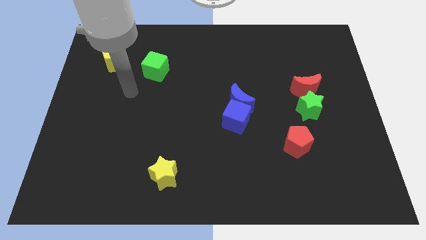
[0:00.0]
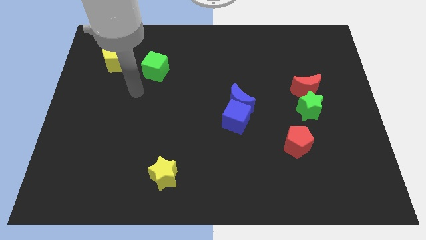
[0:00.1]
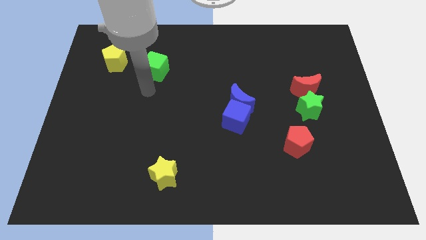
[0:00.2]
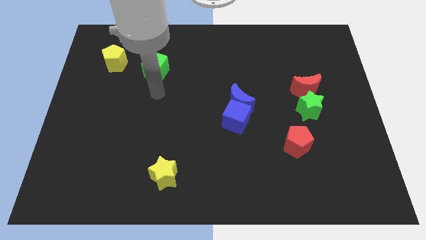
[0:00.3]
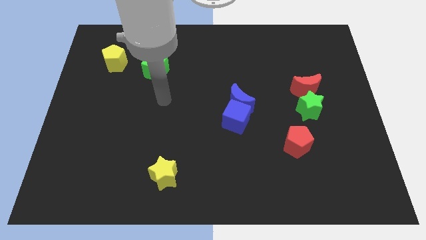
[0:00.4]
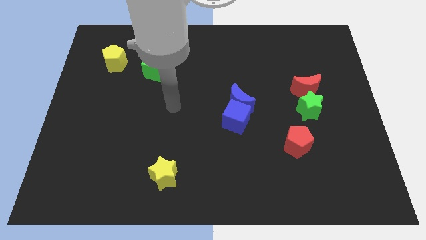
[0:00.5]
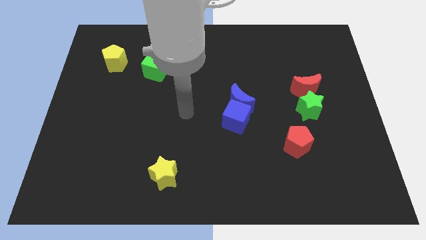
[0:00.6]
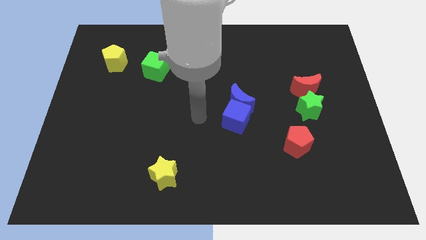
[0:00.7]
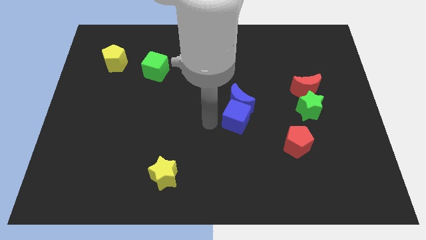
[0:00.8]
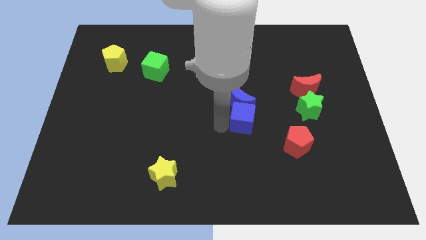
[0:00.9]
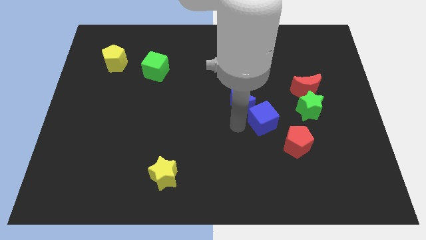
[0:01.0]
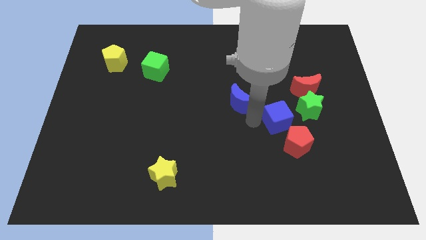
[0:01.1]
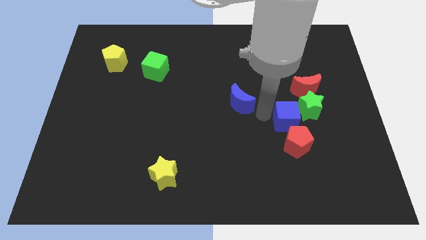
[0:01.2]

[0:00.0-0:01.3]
move the blue moon away from the blue cube

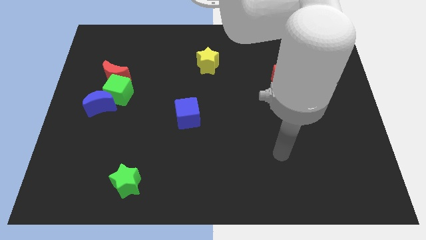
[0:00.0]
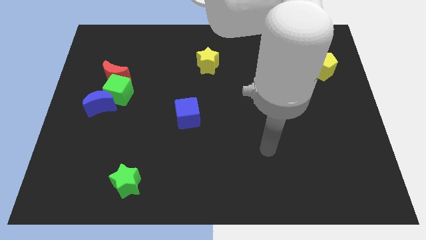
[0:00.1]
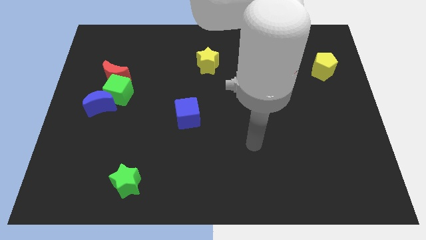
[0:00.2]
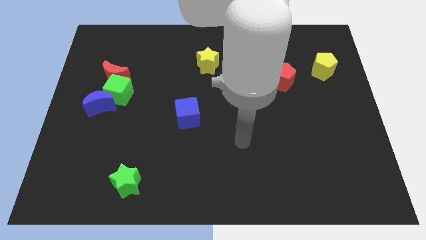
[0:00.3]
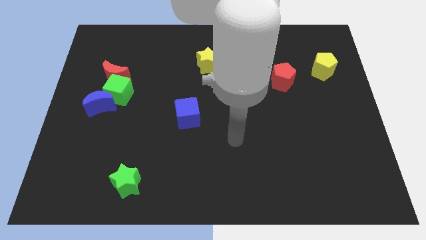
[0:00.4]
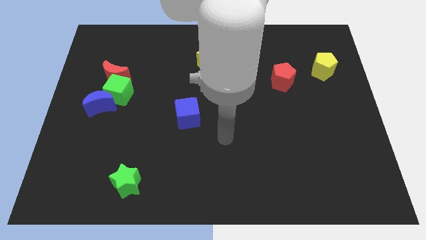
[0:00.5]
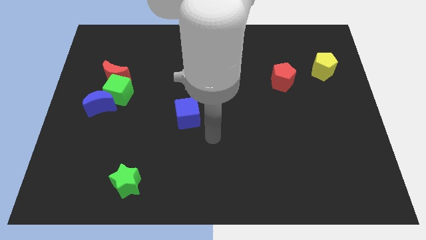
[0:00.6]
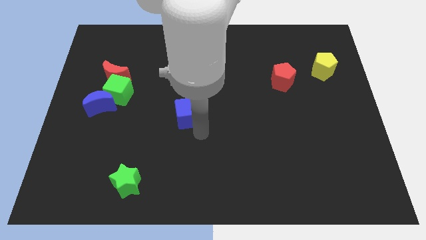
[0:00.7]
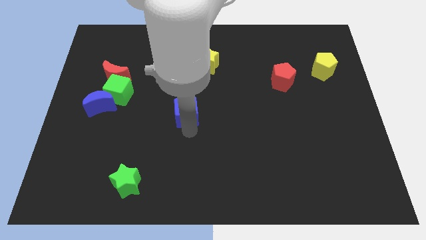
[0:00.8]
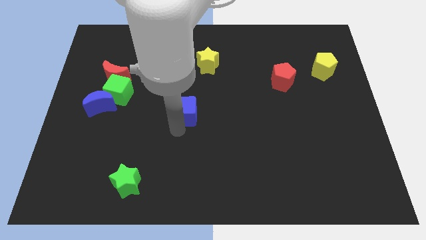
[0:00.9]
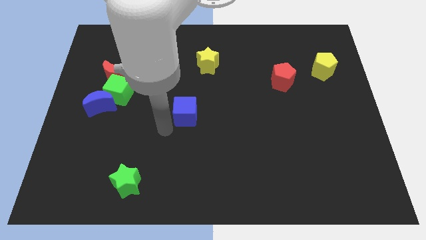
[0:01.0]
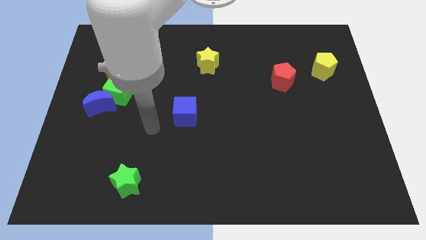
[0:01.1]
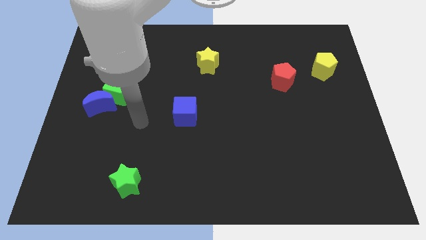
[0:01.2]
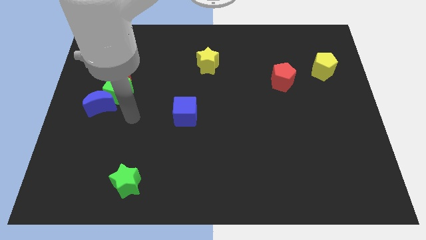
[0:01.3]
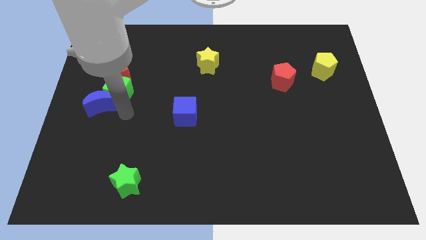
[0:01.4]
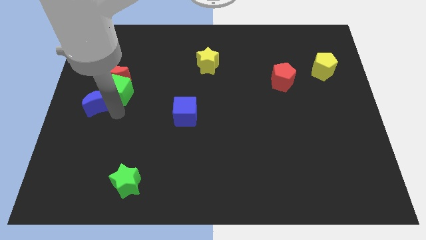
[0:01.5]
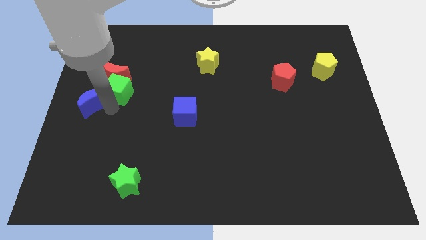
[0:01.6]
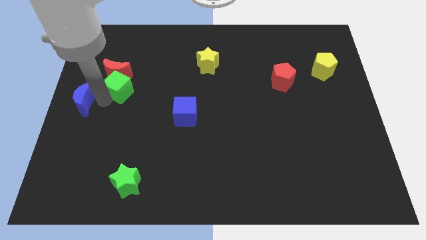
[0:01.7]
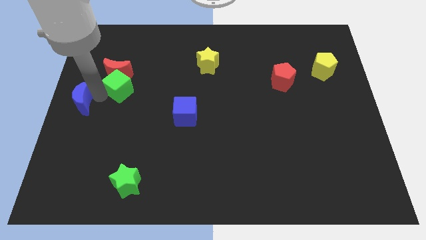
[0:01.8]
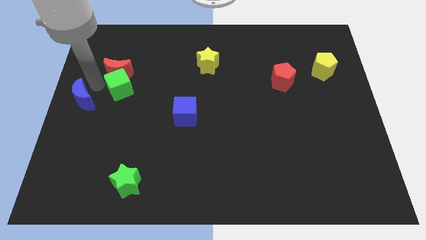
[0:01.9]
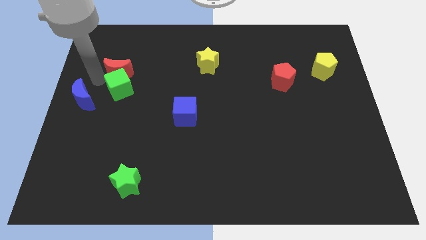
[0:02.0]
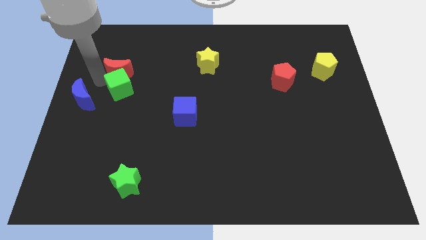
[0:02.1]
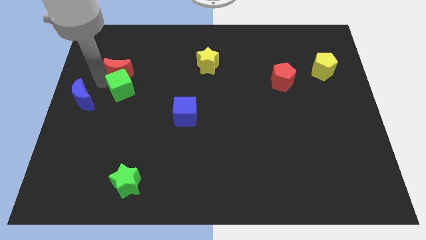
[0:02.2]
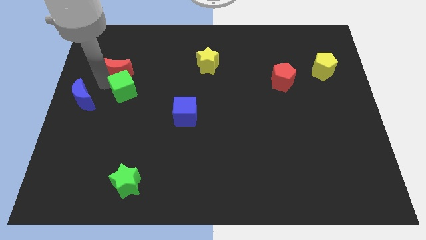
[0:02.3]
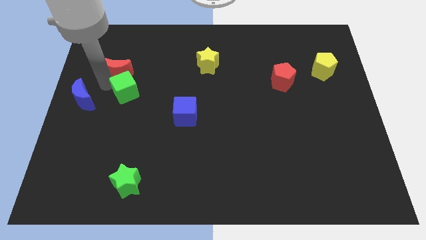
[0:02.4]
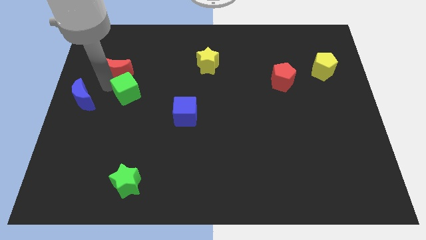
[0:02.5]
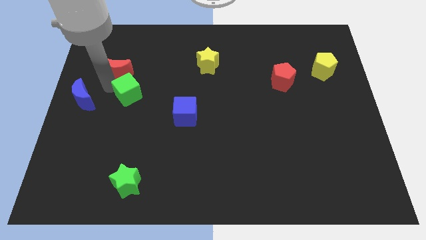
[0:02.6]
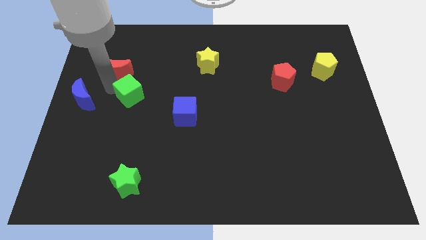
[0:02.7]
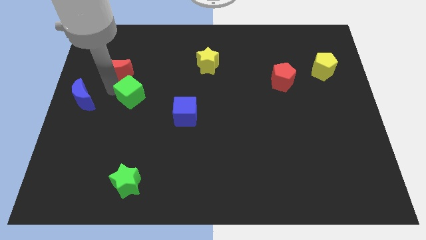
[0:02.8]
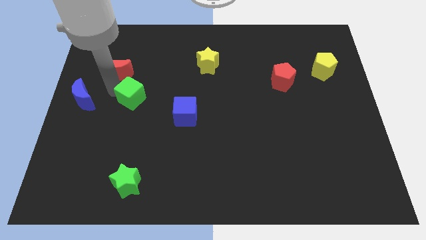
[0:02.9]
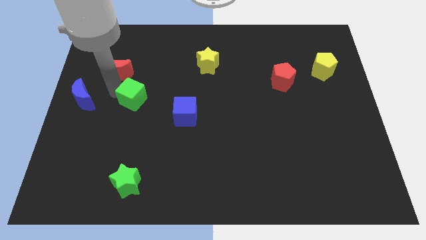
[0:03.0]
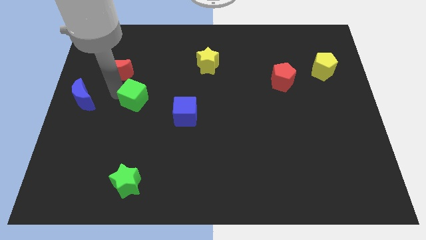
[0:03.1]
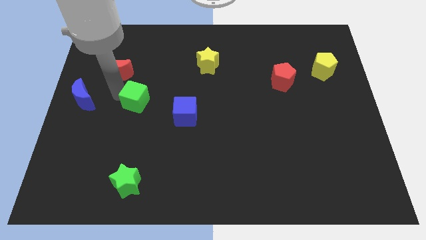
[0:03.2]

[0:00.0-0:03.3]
pull the green cube apart from the red moon and blue moon

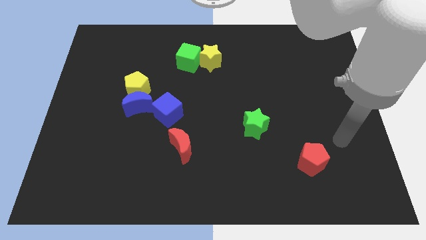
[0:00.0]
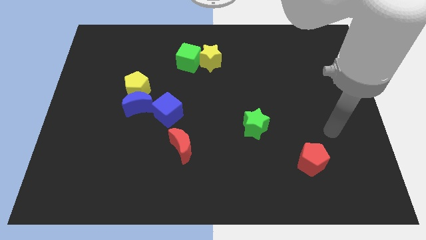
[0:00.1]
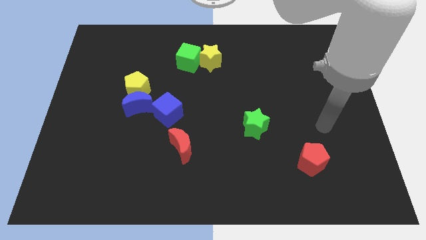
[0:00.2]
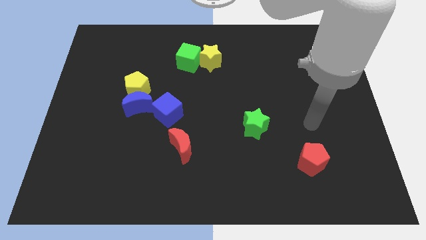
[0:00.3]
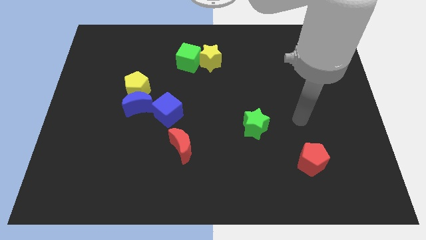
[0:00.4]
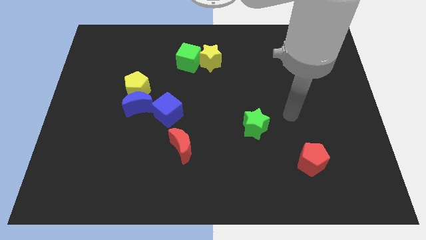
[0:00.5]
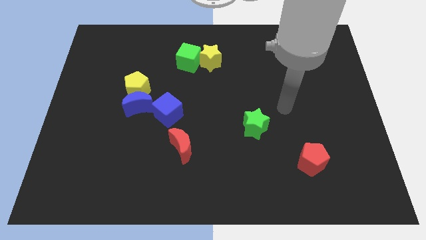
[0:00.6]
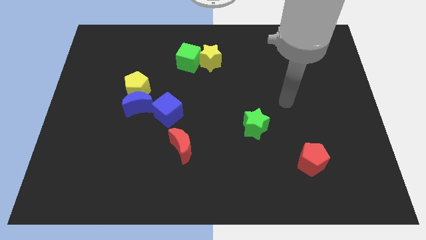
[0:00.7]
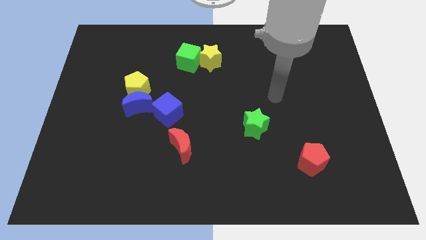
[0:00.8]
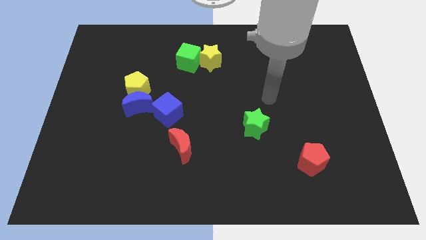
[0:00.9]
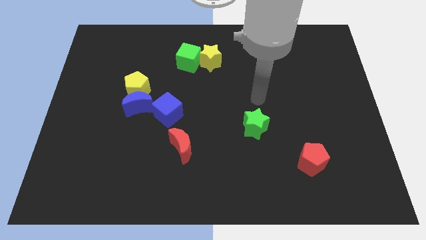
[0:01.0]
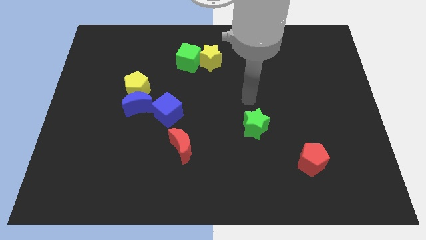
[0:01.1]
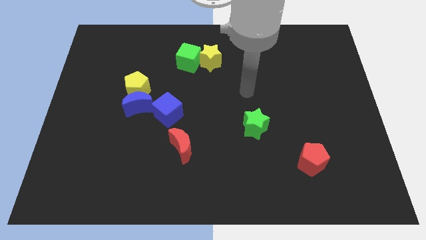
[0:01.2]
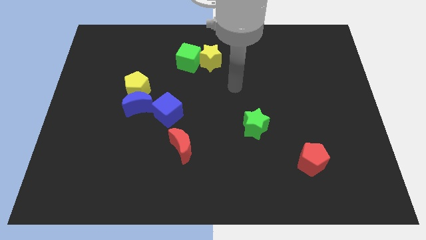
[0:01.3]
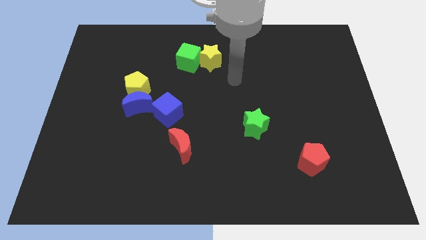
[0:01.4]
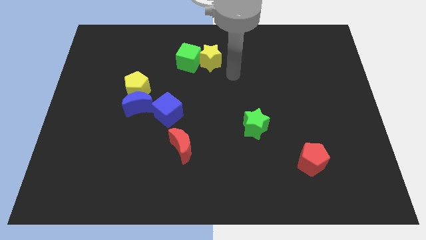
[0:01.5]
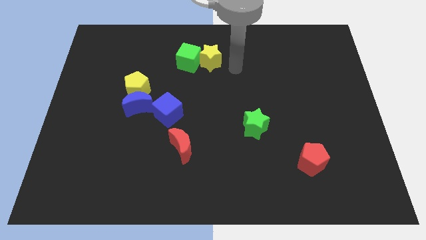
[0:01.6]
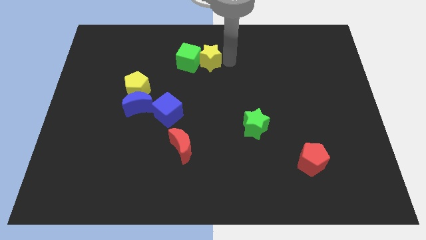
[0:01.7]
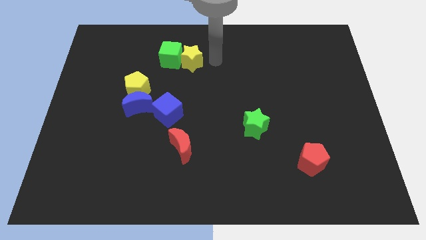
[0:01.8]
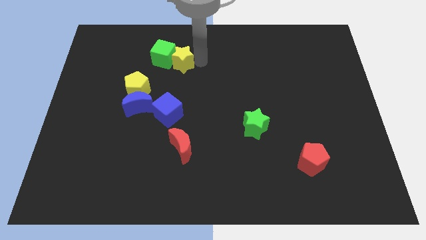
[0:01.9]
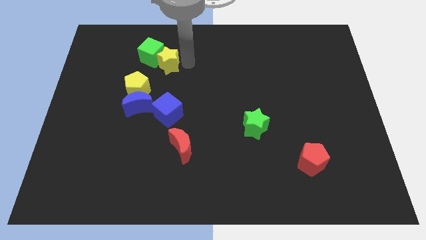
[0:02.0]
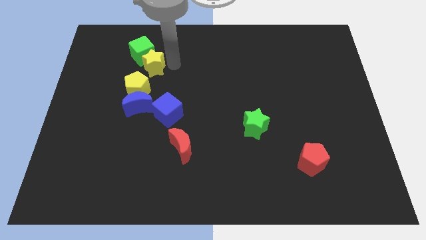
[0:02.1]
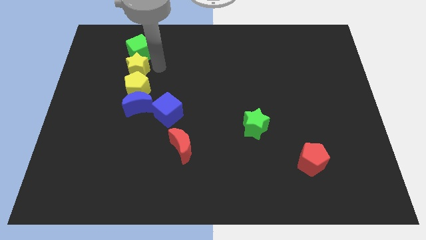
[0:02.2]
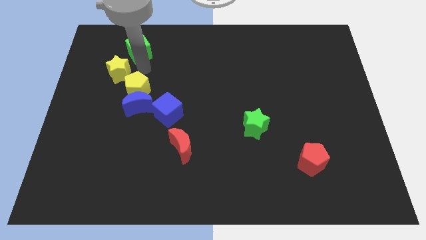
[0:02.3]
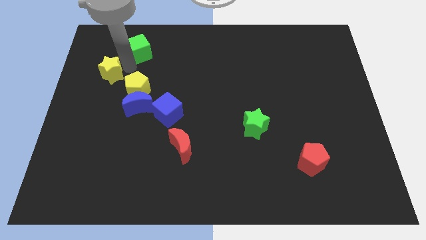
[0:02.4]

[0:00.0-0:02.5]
pull the green cube apart from the yellow star

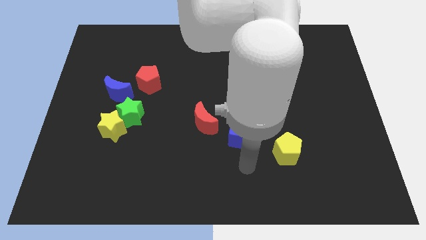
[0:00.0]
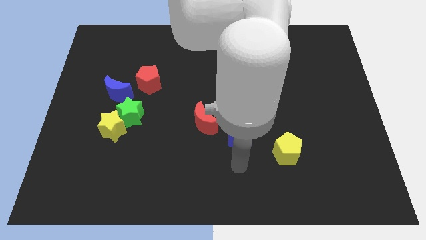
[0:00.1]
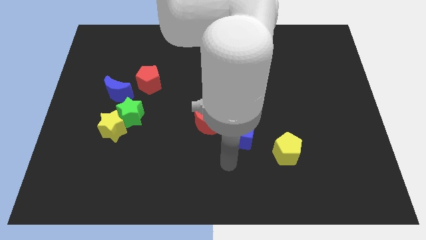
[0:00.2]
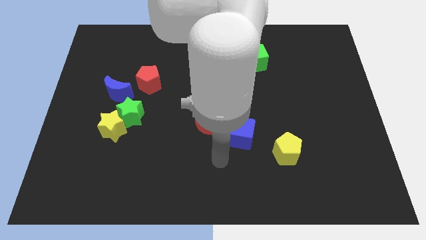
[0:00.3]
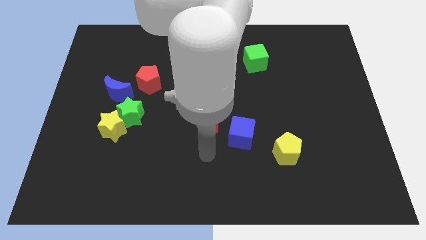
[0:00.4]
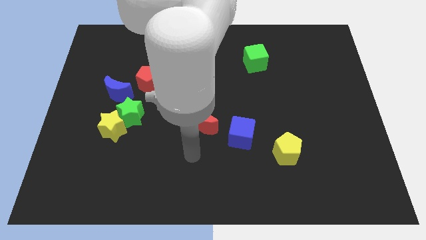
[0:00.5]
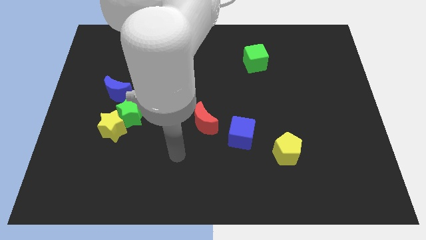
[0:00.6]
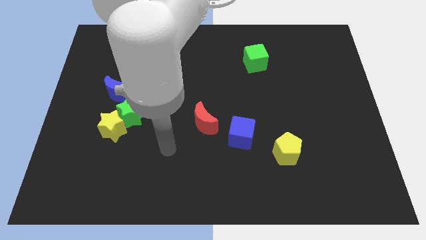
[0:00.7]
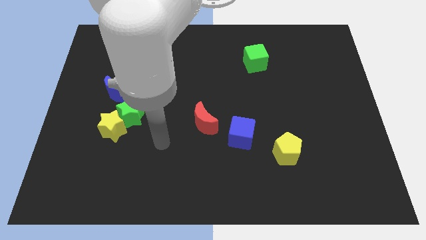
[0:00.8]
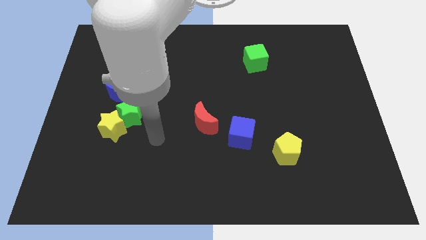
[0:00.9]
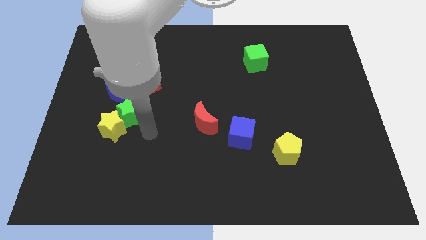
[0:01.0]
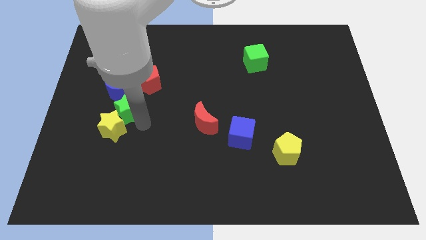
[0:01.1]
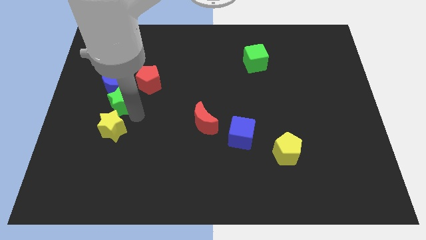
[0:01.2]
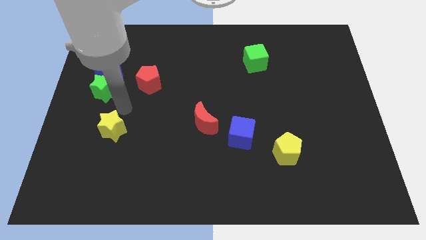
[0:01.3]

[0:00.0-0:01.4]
separate the yellow star from the green star

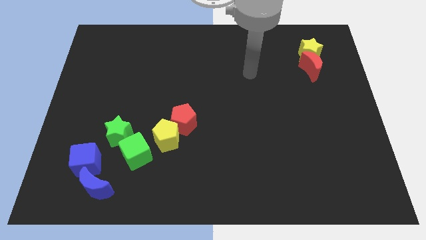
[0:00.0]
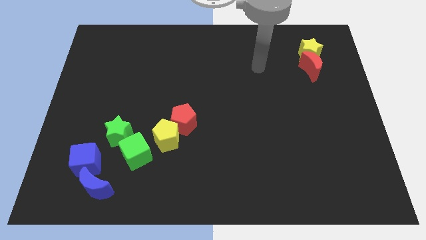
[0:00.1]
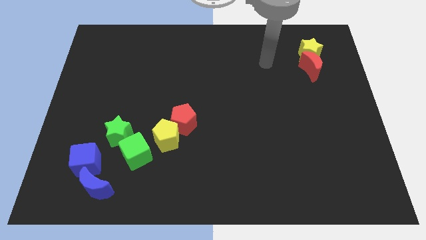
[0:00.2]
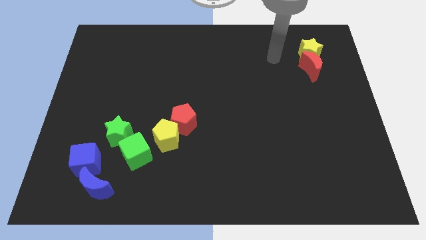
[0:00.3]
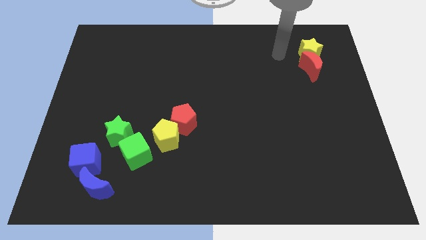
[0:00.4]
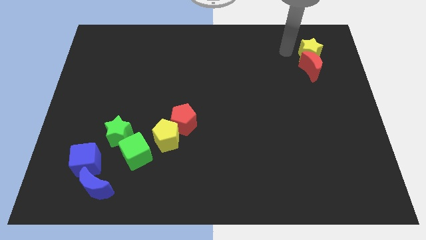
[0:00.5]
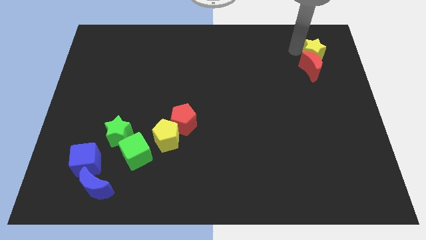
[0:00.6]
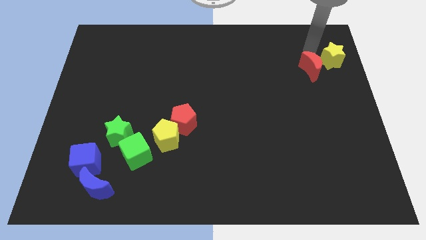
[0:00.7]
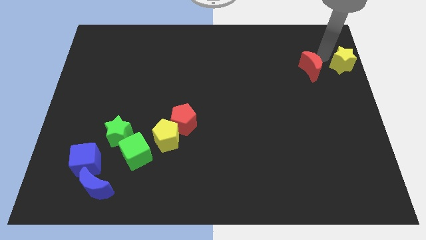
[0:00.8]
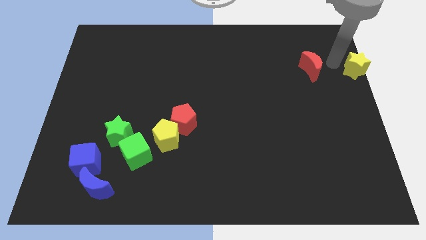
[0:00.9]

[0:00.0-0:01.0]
move the red moon away from the yellow star
